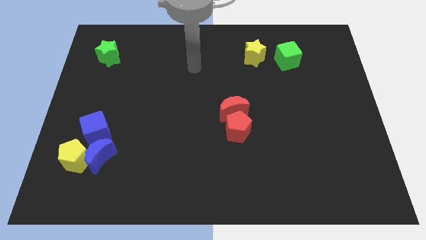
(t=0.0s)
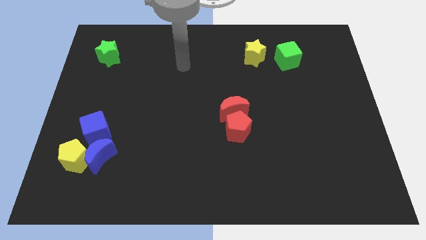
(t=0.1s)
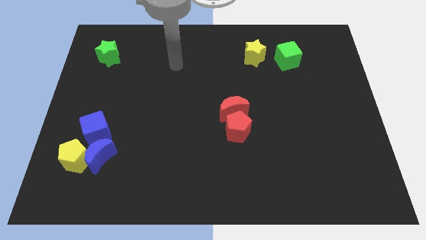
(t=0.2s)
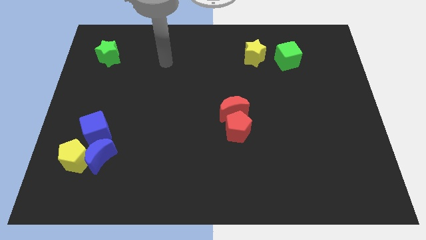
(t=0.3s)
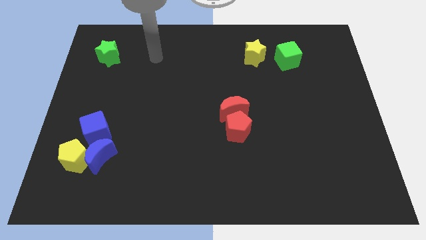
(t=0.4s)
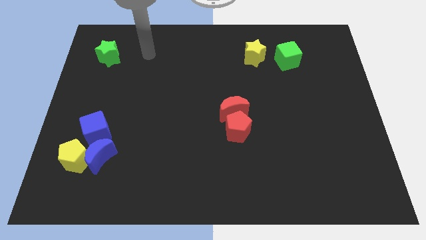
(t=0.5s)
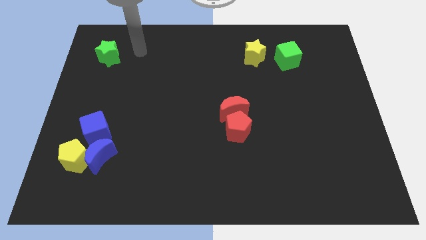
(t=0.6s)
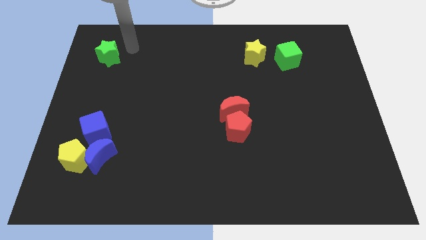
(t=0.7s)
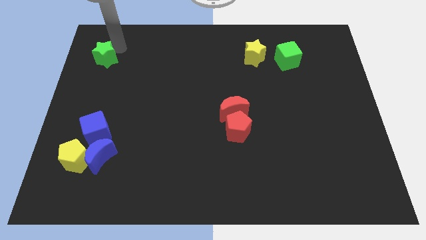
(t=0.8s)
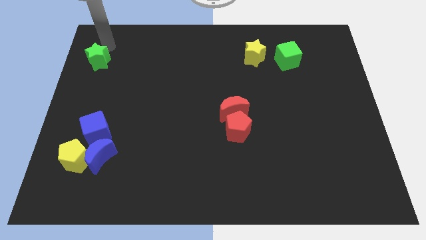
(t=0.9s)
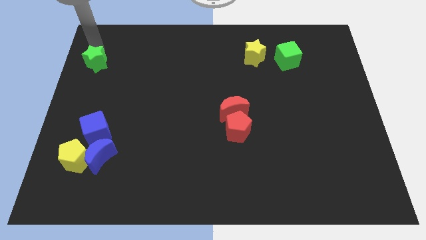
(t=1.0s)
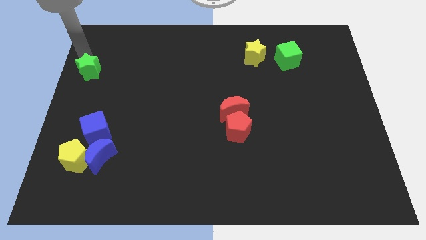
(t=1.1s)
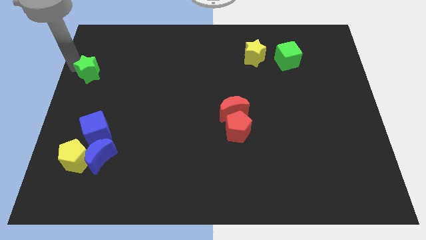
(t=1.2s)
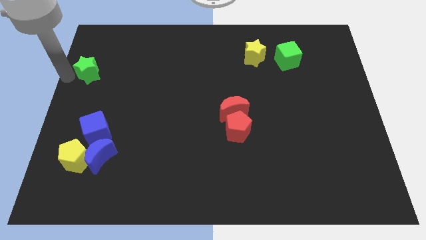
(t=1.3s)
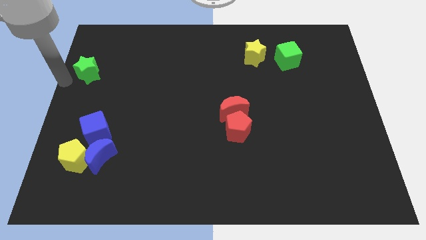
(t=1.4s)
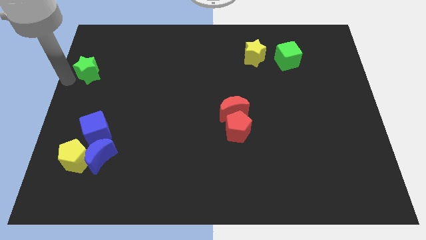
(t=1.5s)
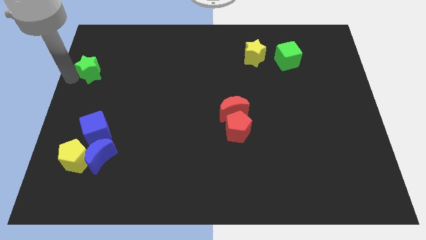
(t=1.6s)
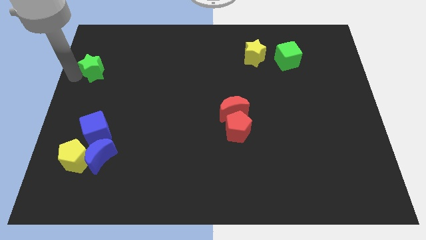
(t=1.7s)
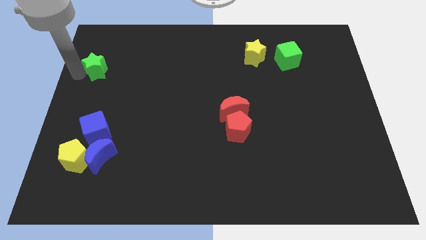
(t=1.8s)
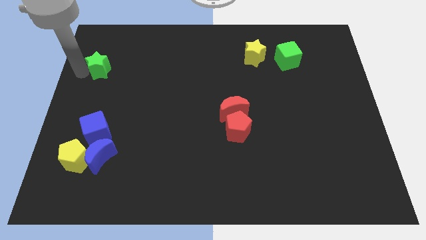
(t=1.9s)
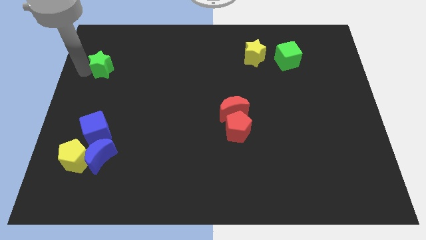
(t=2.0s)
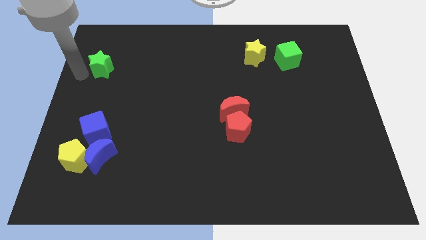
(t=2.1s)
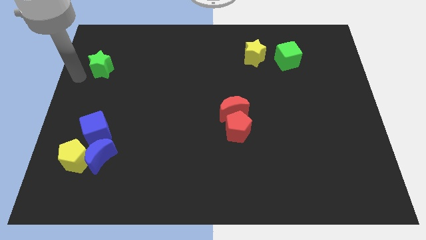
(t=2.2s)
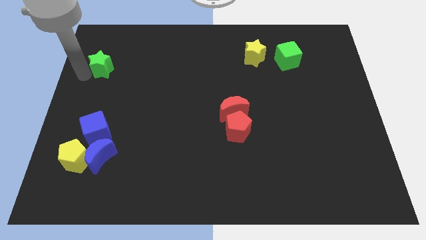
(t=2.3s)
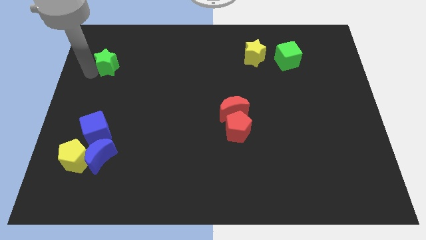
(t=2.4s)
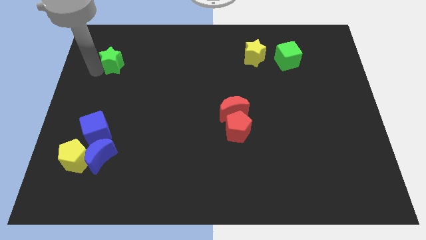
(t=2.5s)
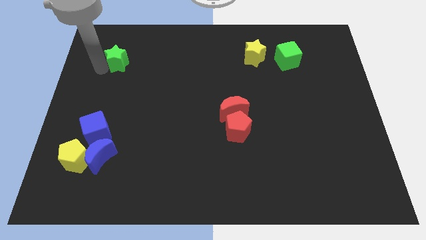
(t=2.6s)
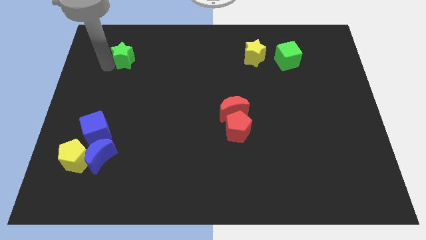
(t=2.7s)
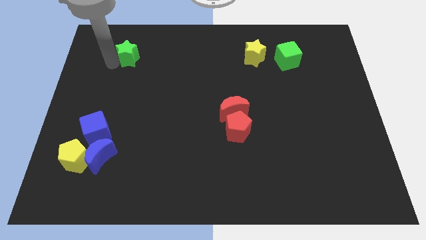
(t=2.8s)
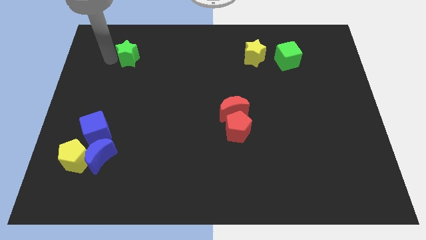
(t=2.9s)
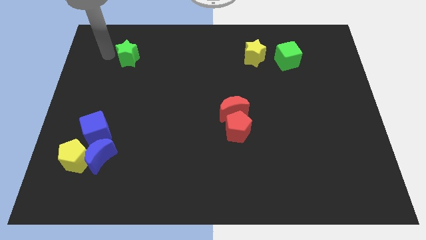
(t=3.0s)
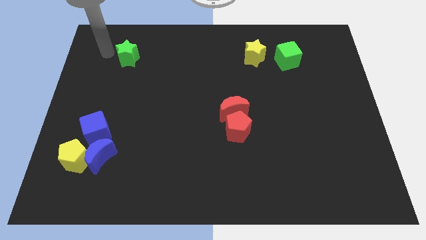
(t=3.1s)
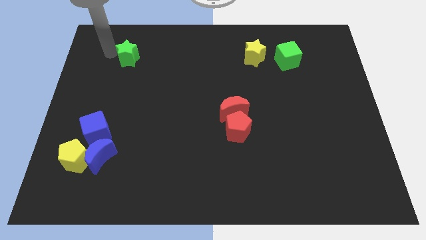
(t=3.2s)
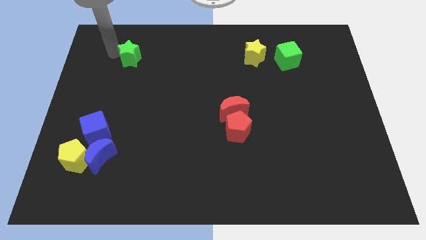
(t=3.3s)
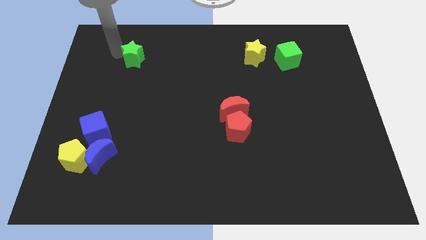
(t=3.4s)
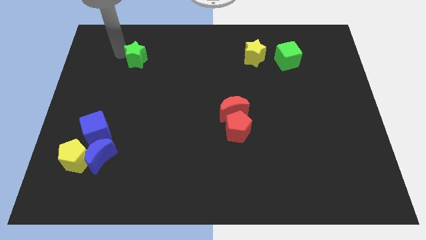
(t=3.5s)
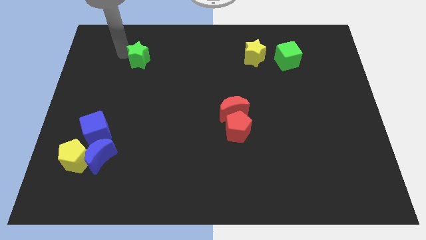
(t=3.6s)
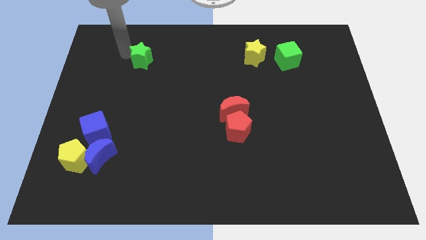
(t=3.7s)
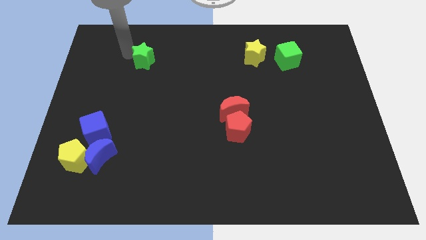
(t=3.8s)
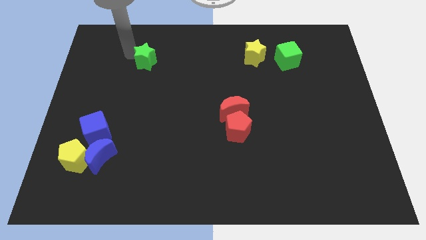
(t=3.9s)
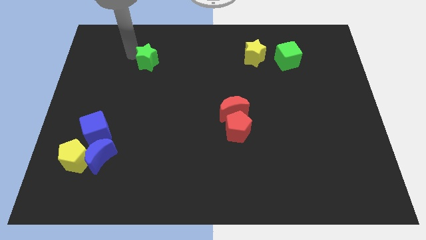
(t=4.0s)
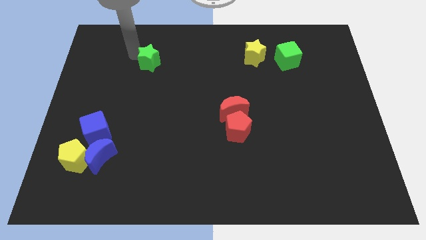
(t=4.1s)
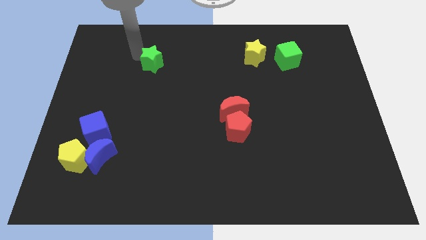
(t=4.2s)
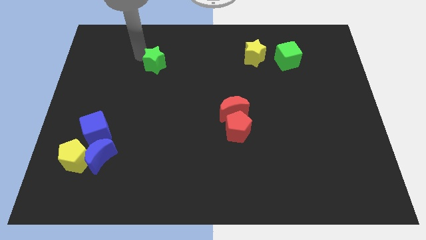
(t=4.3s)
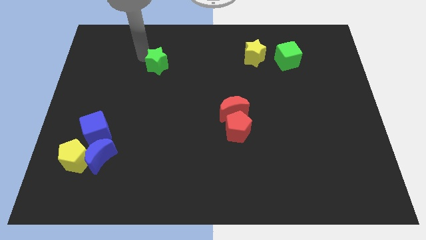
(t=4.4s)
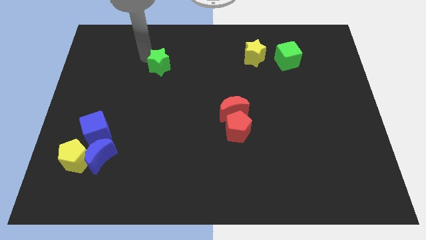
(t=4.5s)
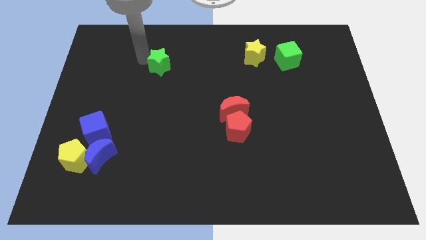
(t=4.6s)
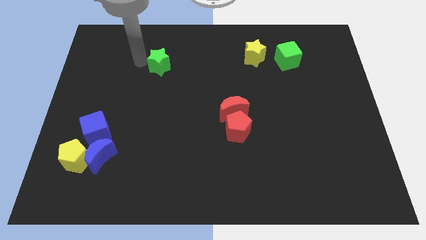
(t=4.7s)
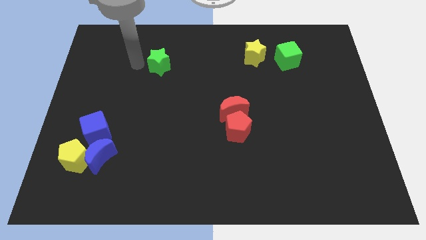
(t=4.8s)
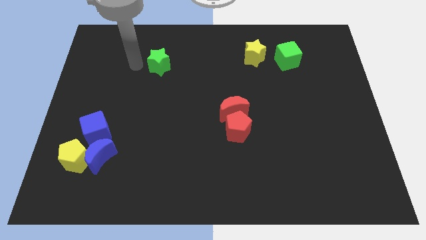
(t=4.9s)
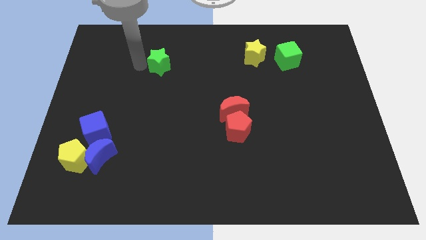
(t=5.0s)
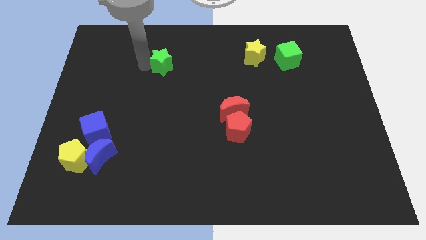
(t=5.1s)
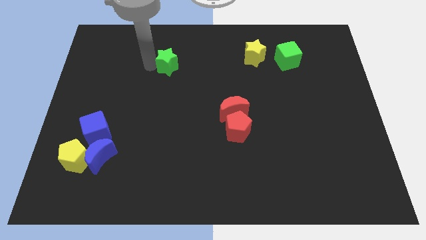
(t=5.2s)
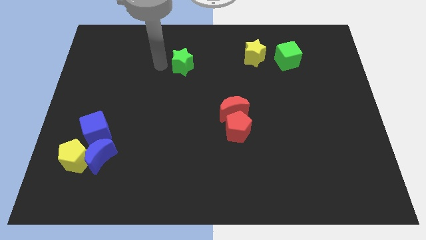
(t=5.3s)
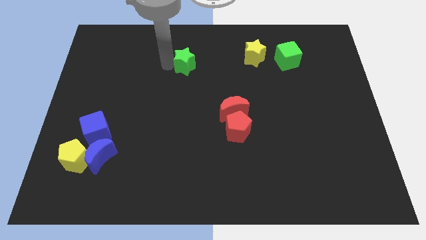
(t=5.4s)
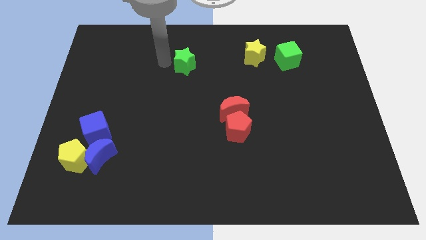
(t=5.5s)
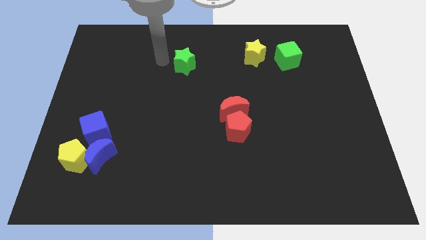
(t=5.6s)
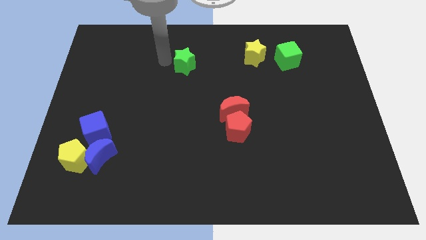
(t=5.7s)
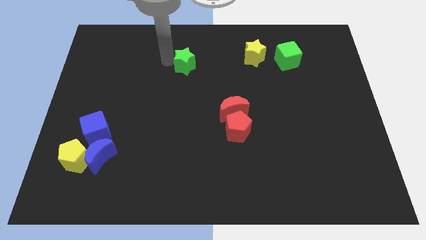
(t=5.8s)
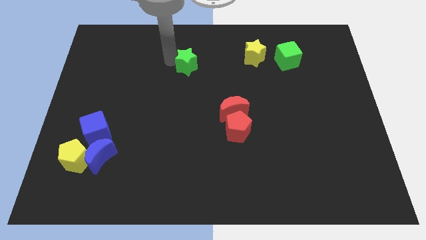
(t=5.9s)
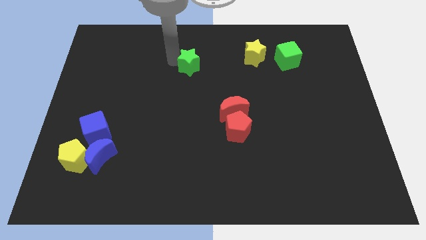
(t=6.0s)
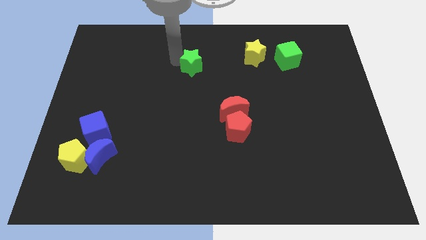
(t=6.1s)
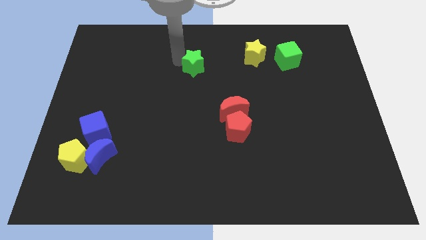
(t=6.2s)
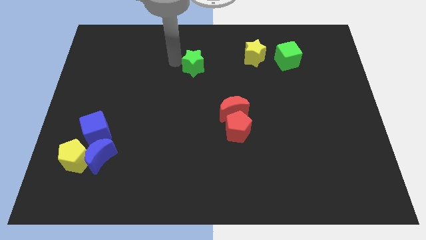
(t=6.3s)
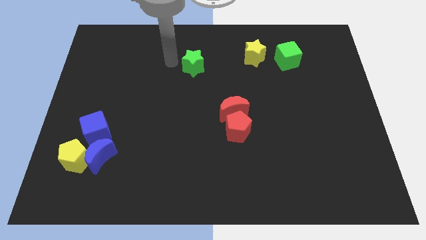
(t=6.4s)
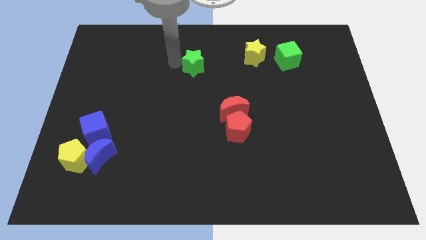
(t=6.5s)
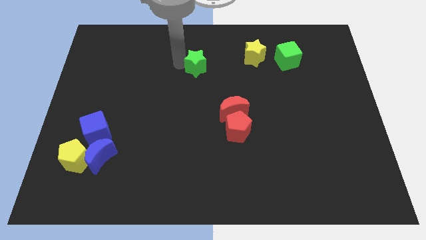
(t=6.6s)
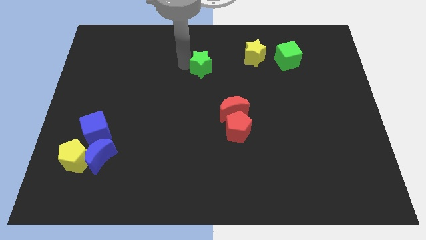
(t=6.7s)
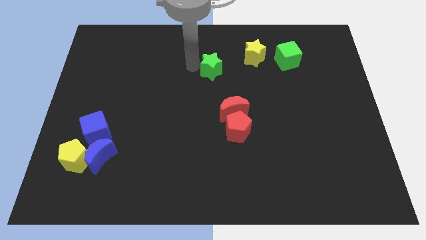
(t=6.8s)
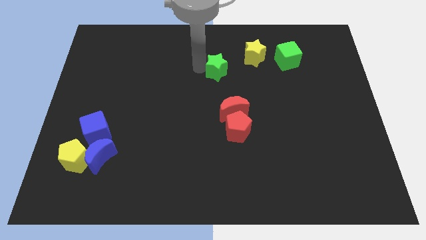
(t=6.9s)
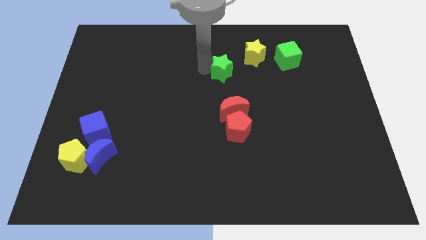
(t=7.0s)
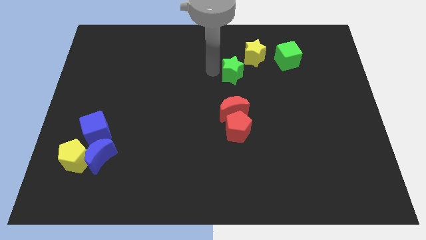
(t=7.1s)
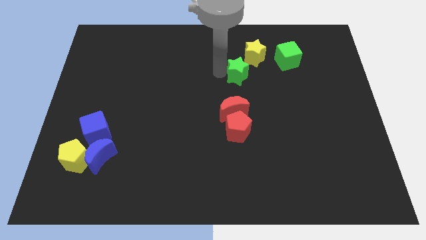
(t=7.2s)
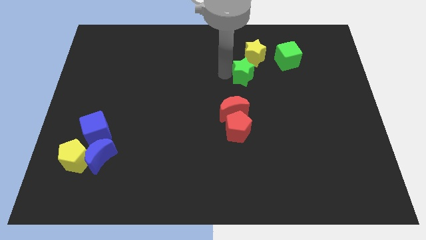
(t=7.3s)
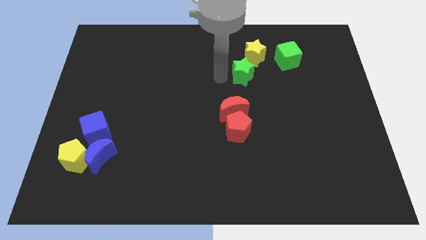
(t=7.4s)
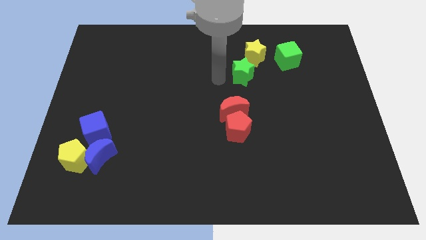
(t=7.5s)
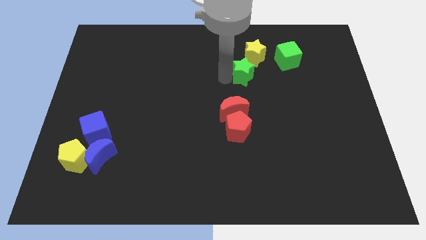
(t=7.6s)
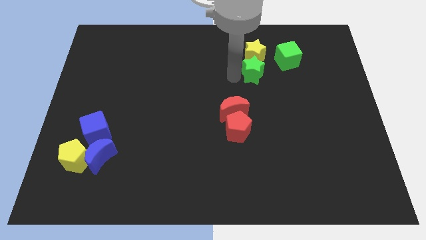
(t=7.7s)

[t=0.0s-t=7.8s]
slide the green star diagonally down and to the right of the yellow star

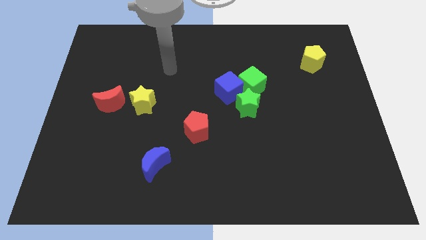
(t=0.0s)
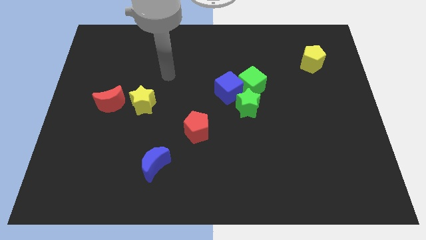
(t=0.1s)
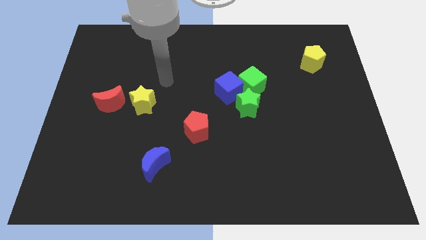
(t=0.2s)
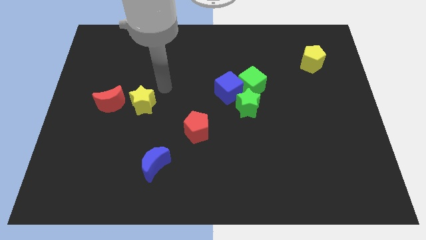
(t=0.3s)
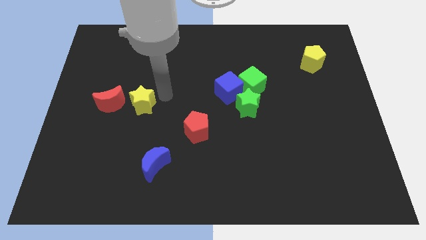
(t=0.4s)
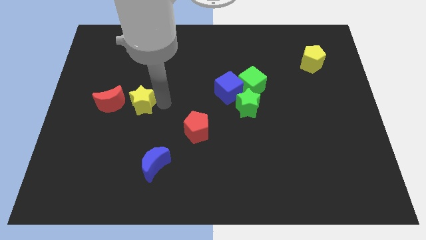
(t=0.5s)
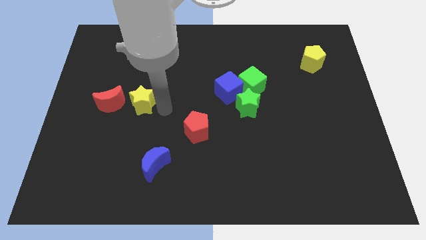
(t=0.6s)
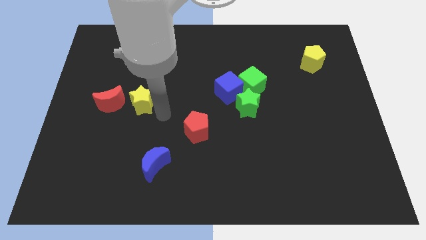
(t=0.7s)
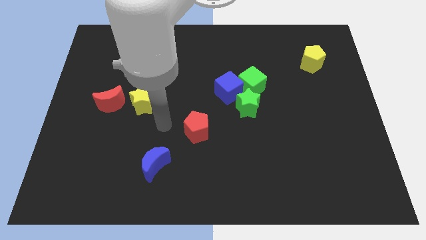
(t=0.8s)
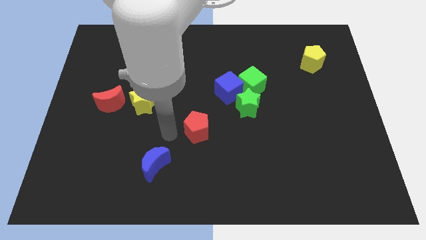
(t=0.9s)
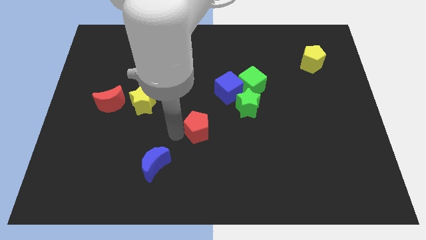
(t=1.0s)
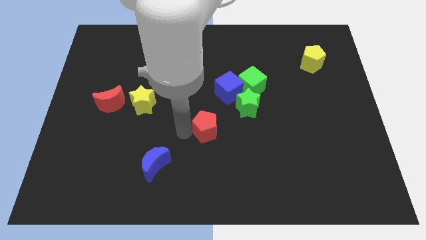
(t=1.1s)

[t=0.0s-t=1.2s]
put the red pentagon to the bottom left of the green star
